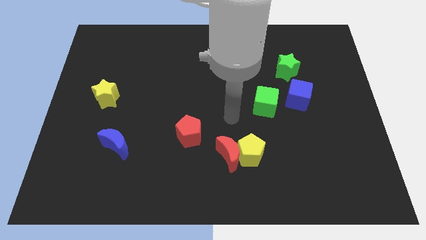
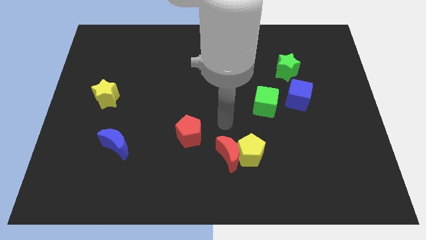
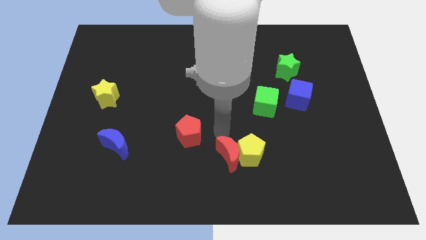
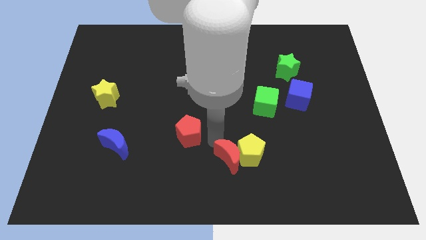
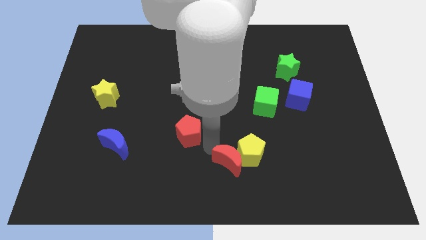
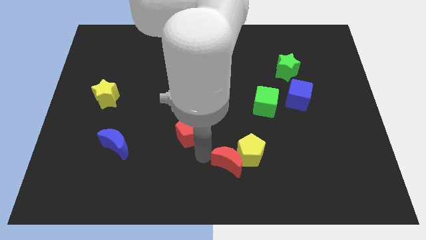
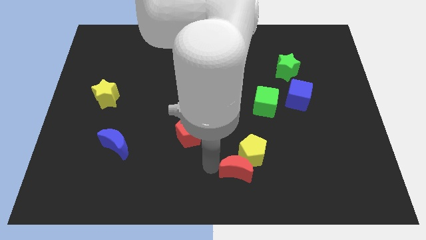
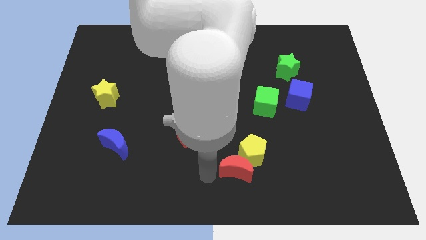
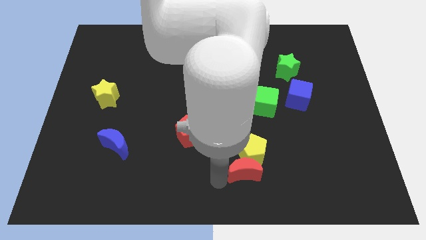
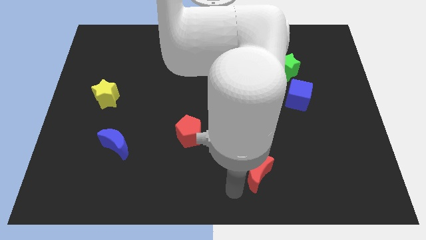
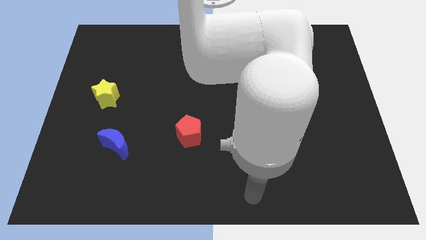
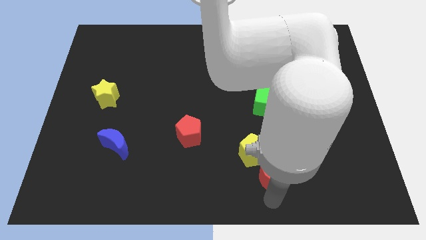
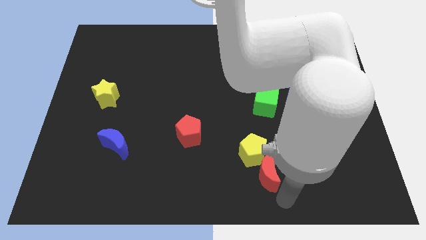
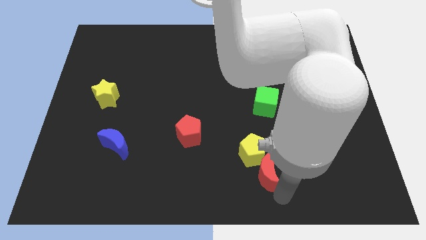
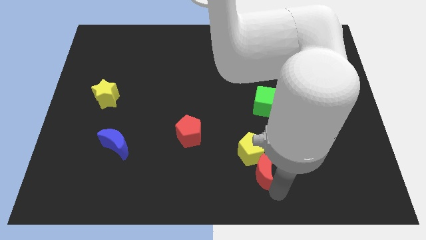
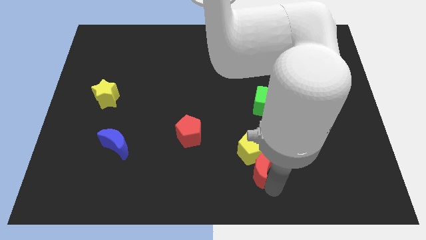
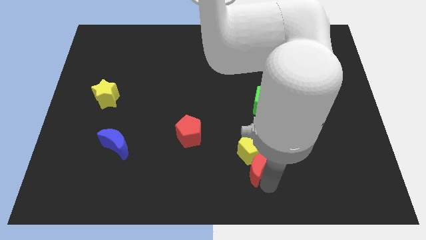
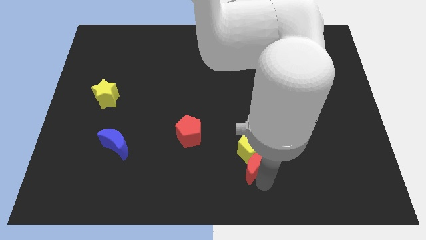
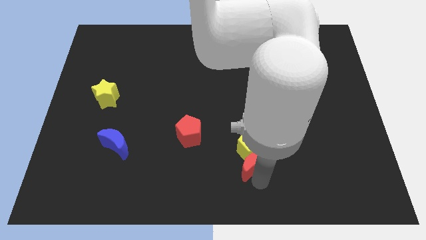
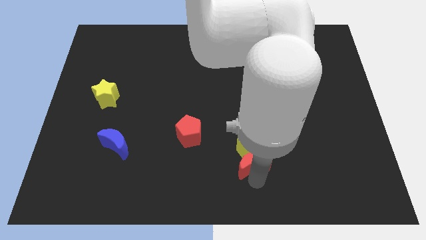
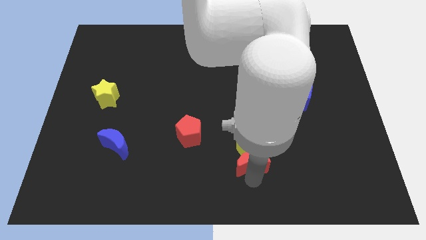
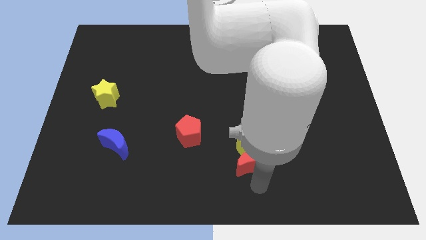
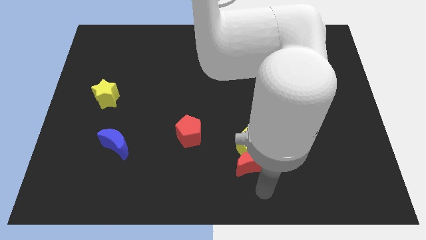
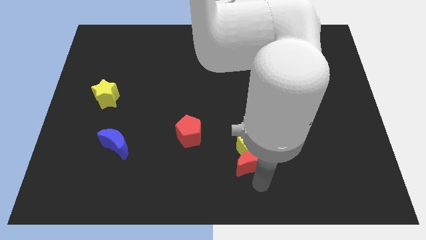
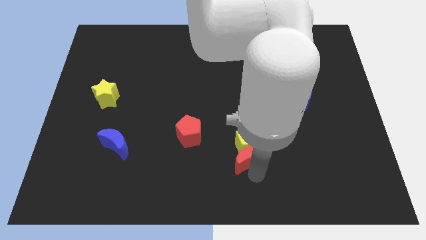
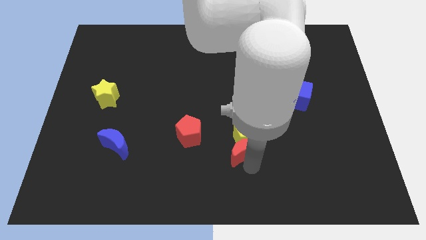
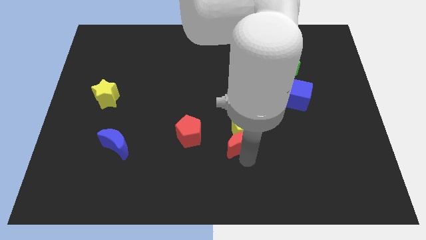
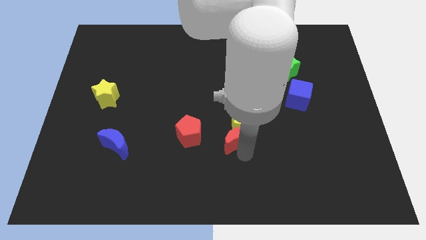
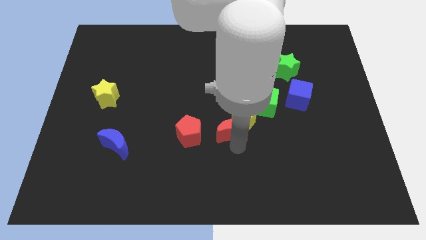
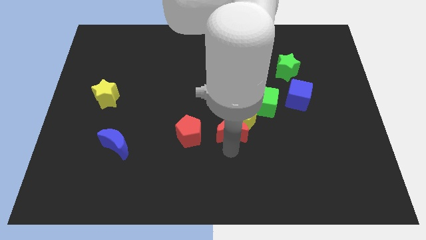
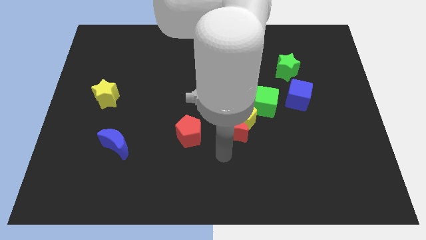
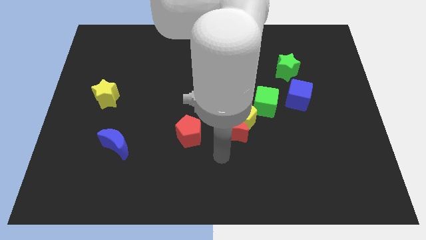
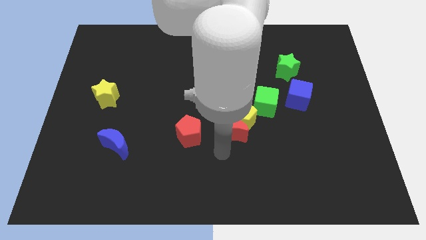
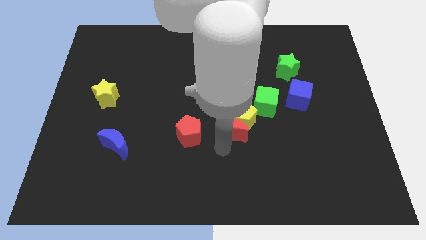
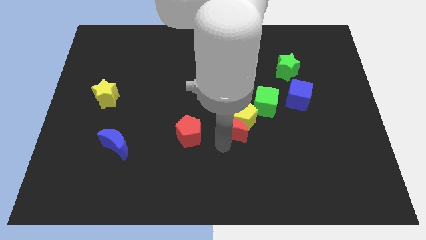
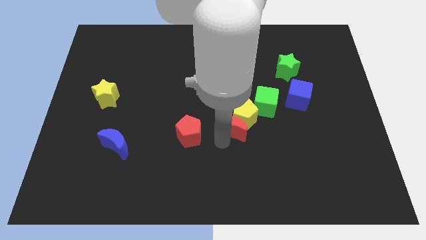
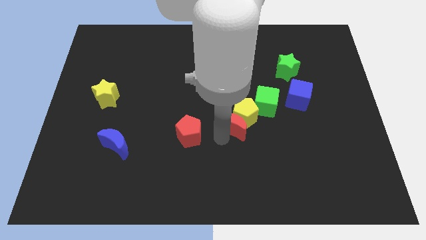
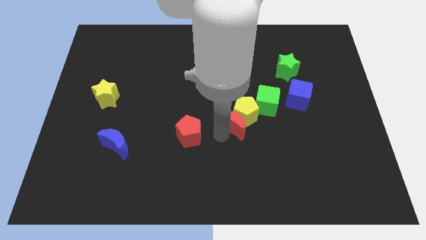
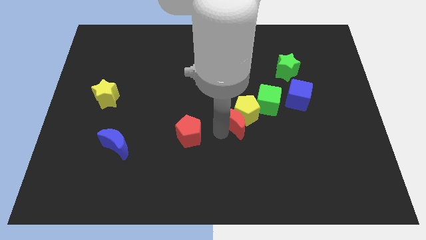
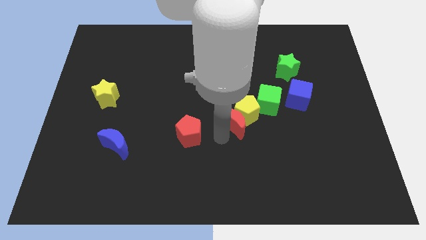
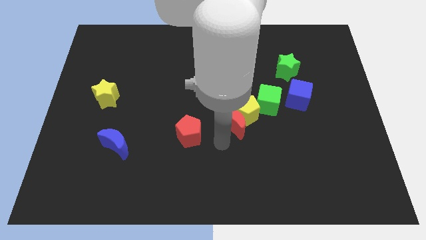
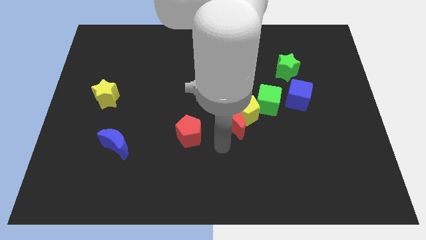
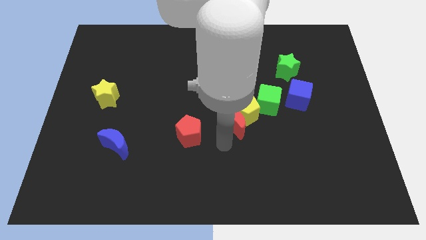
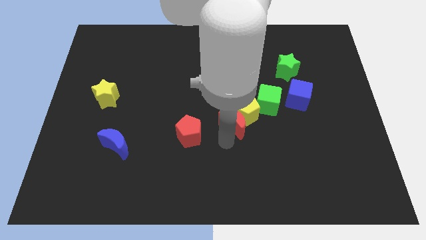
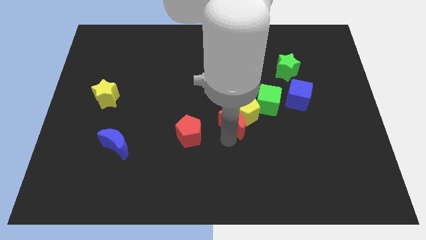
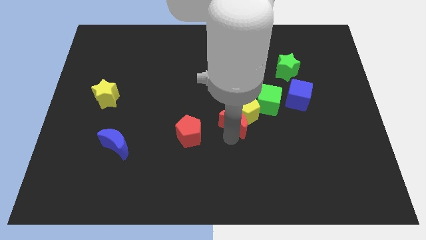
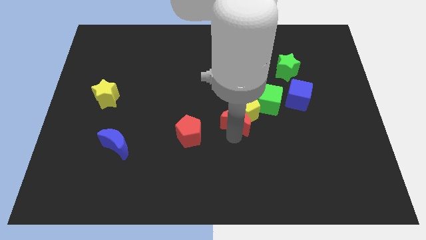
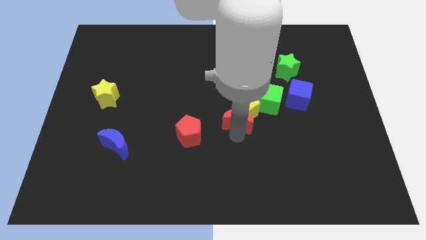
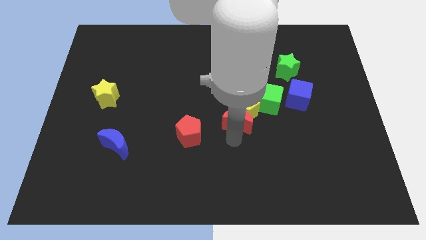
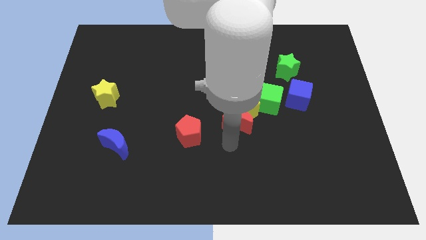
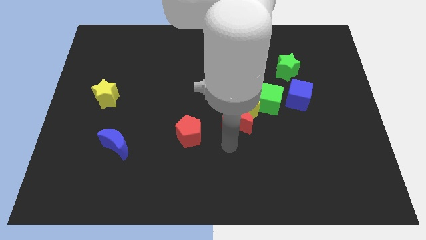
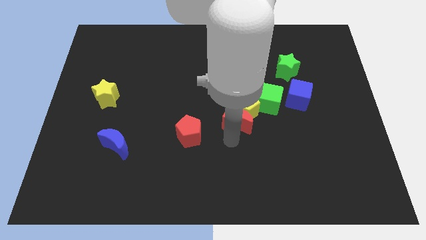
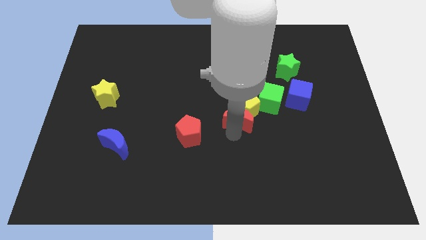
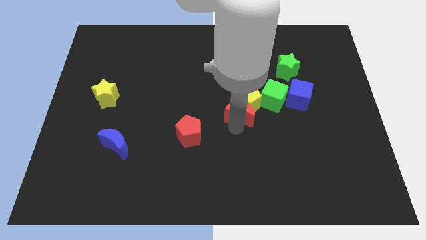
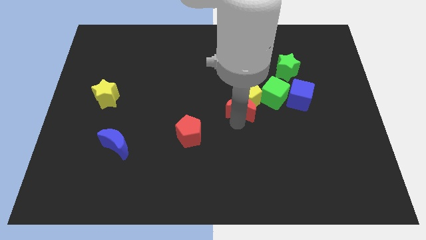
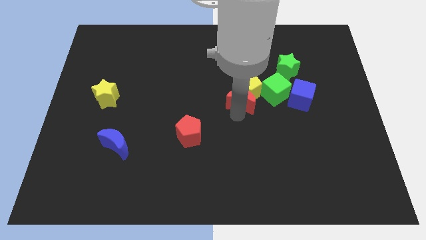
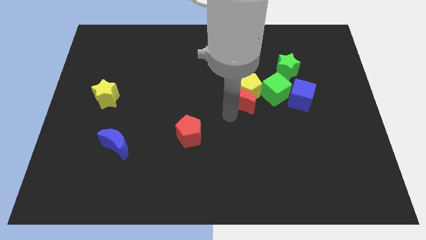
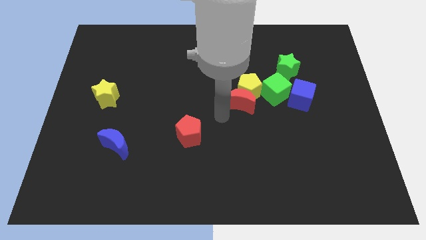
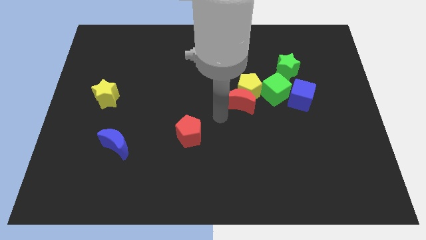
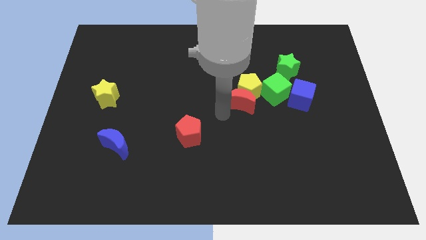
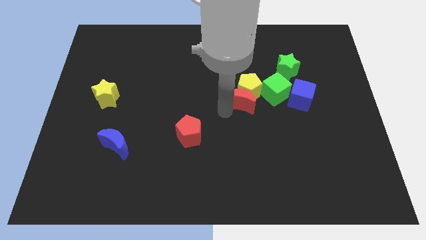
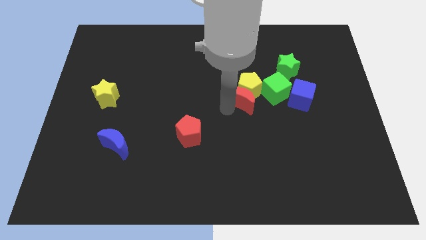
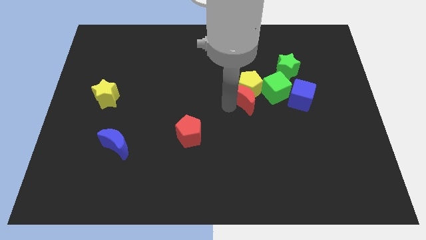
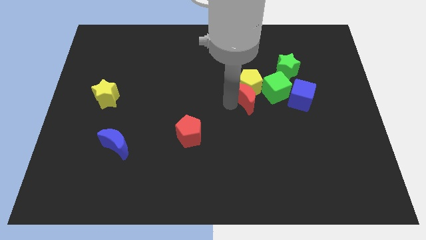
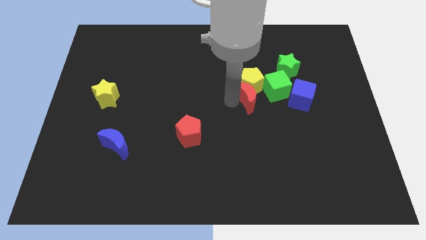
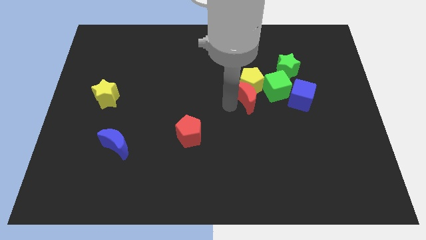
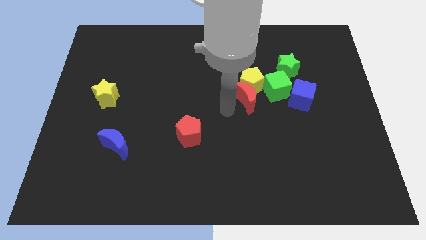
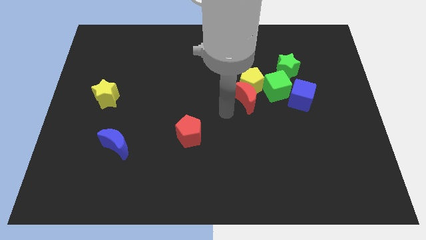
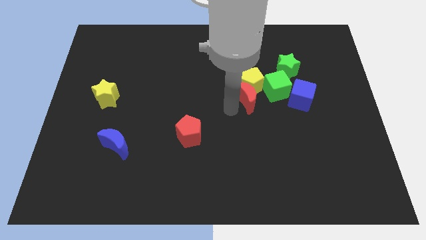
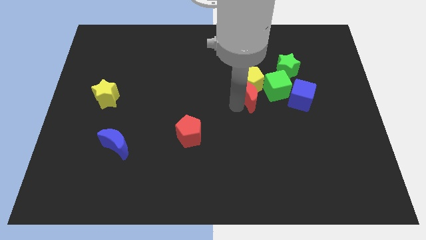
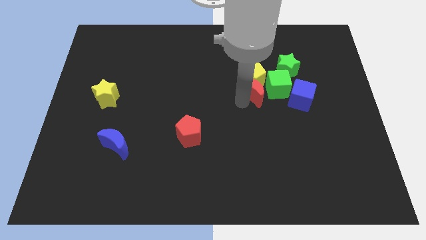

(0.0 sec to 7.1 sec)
put the red moon to the bottom left side of the green star
